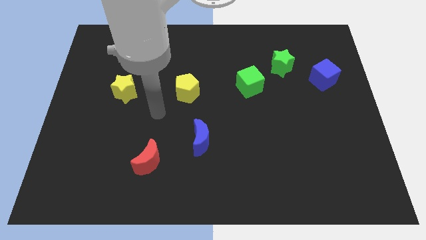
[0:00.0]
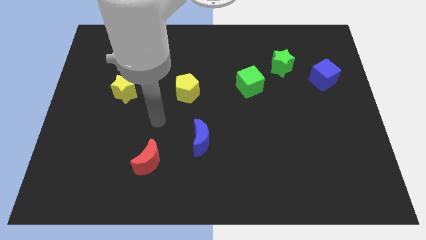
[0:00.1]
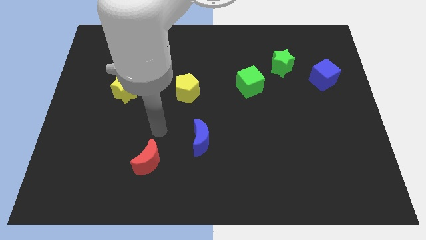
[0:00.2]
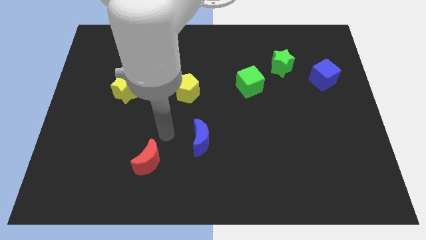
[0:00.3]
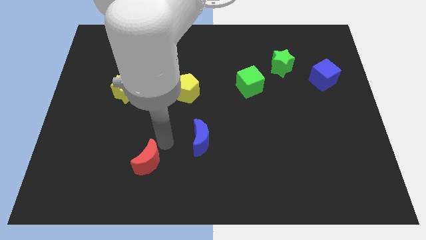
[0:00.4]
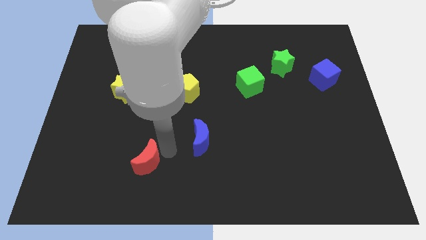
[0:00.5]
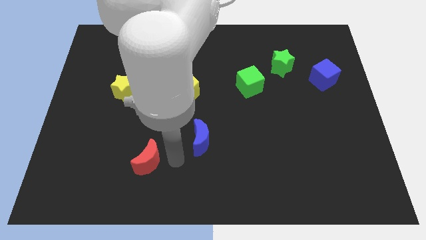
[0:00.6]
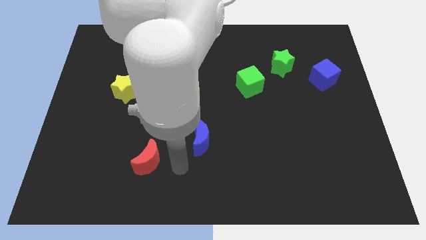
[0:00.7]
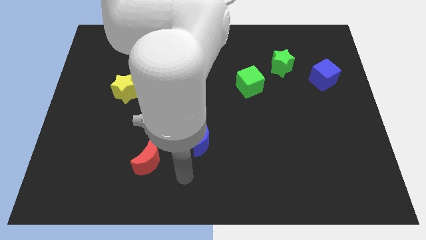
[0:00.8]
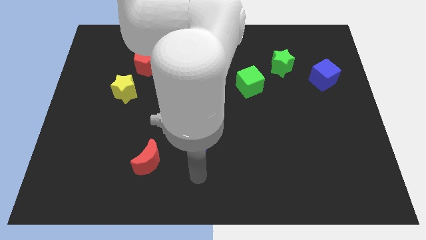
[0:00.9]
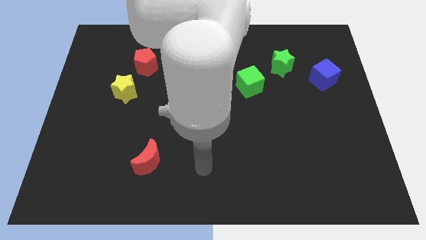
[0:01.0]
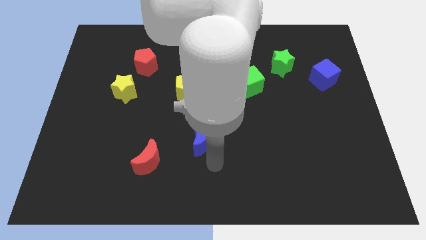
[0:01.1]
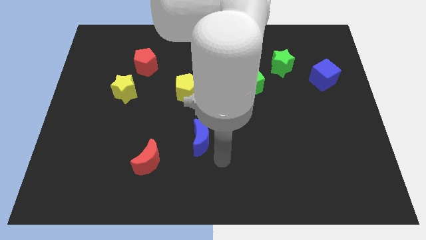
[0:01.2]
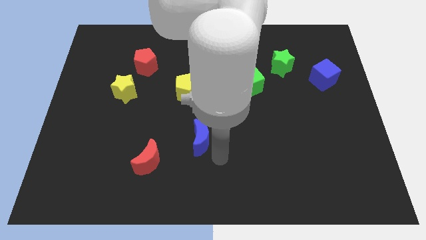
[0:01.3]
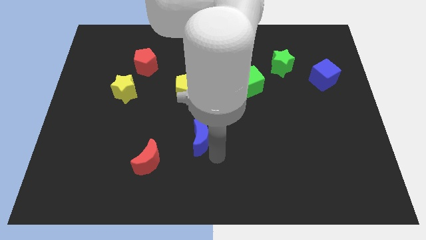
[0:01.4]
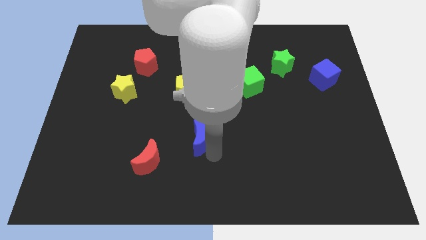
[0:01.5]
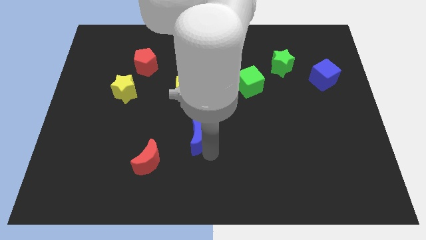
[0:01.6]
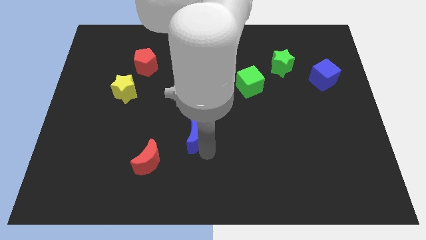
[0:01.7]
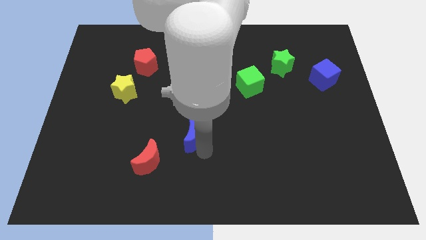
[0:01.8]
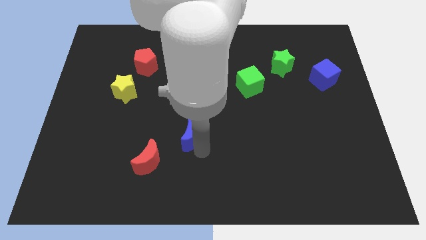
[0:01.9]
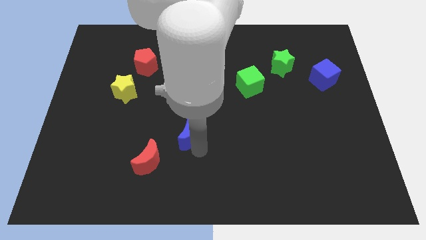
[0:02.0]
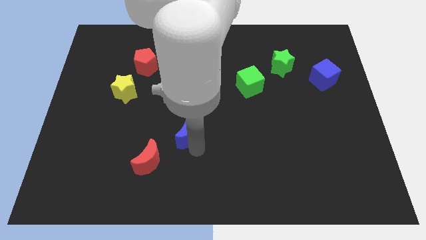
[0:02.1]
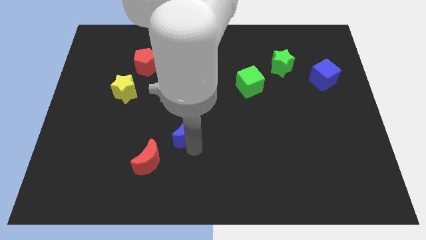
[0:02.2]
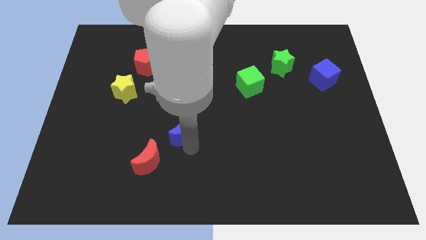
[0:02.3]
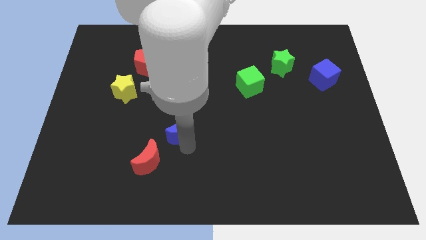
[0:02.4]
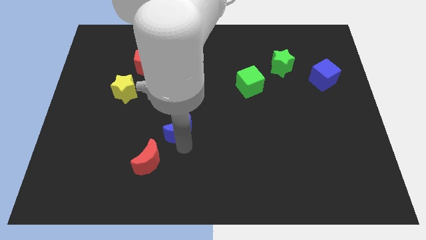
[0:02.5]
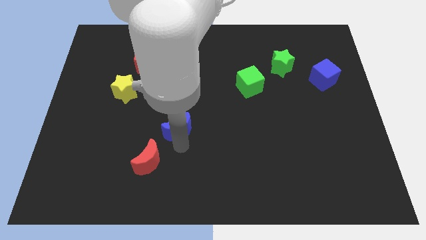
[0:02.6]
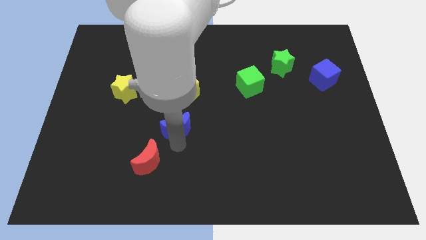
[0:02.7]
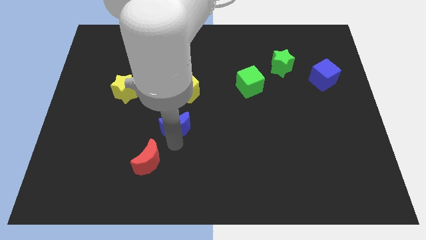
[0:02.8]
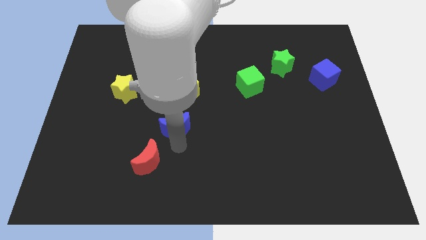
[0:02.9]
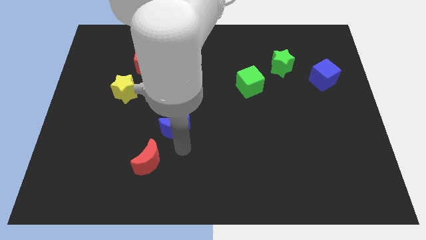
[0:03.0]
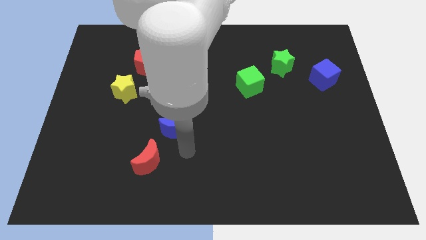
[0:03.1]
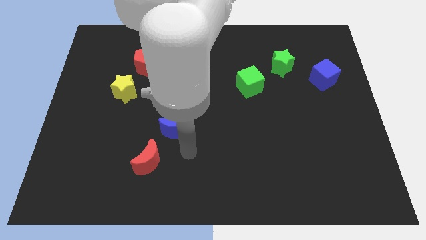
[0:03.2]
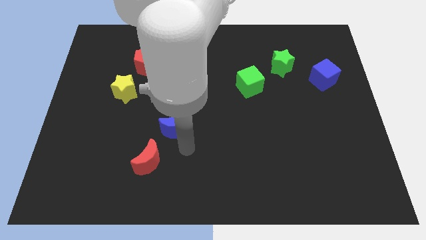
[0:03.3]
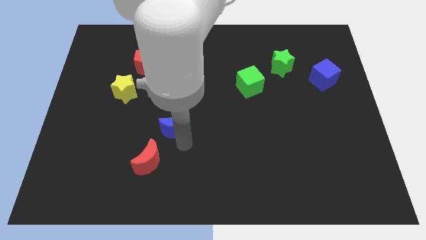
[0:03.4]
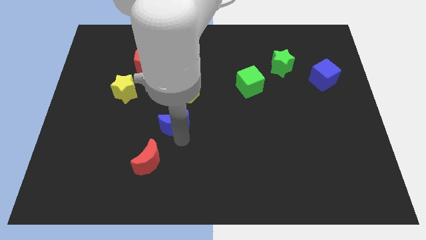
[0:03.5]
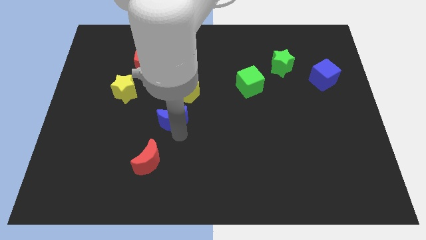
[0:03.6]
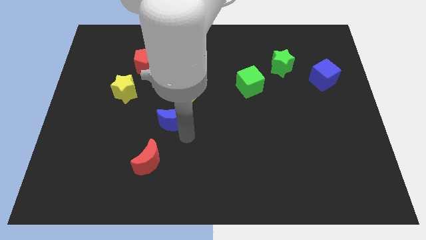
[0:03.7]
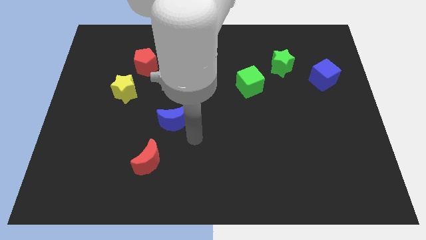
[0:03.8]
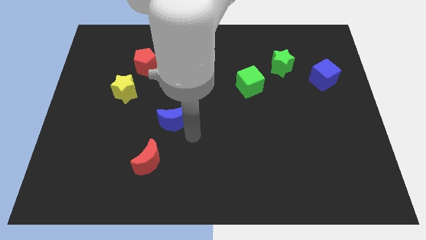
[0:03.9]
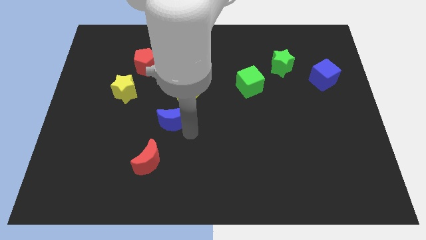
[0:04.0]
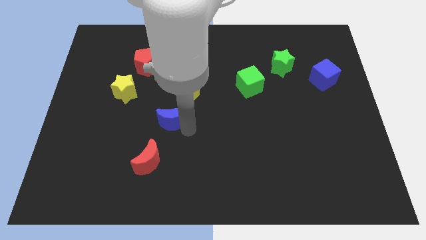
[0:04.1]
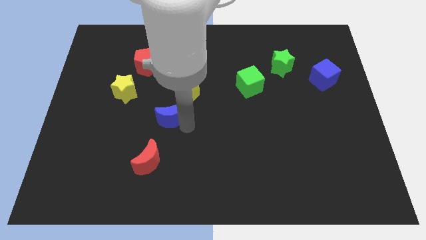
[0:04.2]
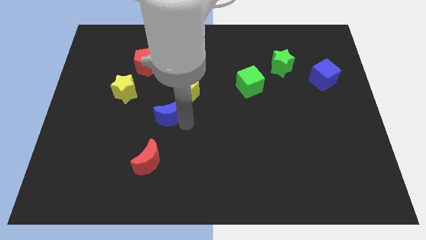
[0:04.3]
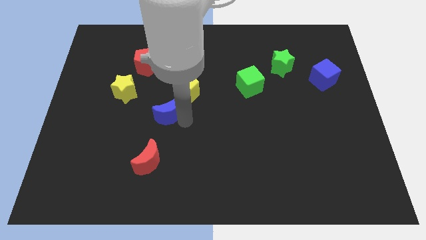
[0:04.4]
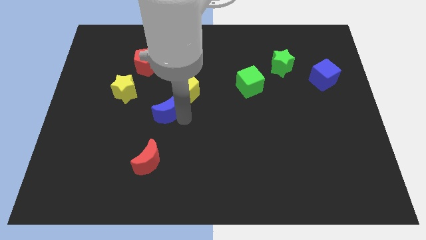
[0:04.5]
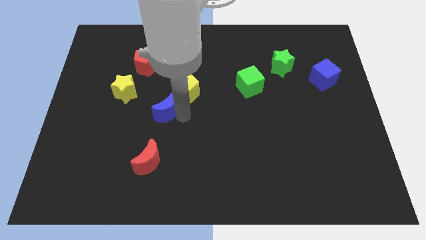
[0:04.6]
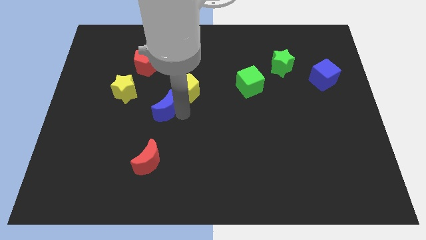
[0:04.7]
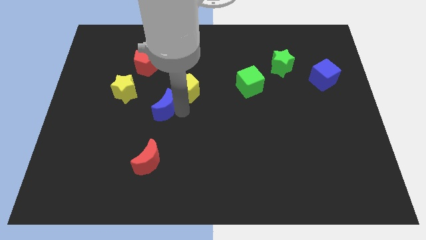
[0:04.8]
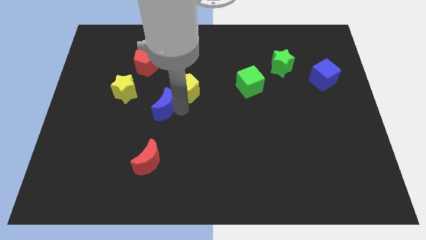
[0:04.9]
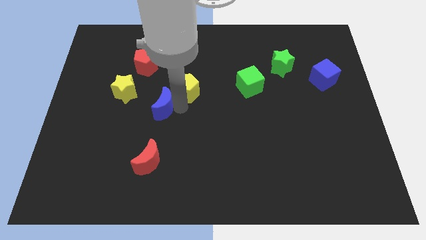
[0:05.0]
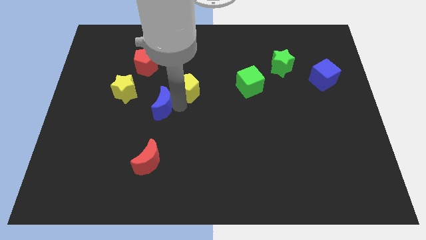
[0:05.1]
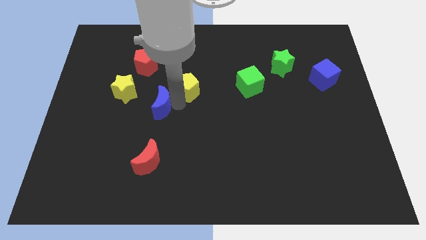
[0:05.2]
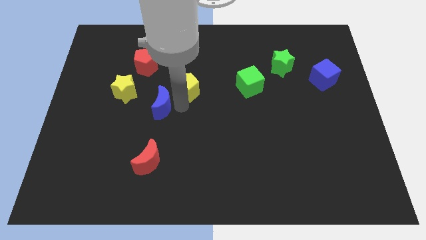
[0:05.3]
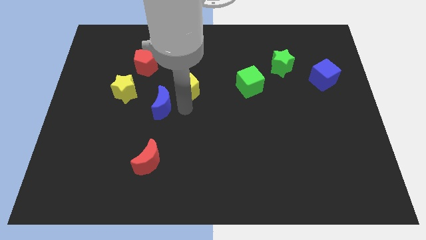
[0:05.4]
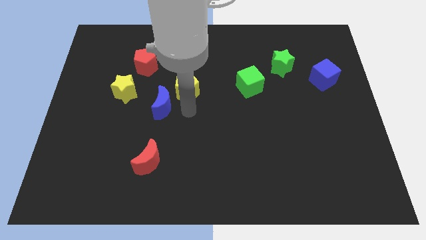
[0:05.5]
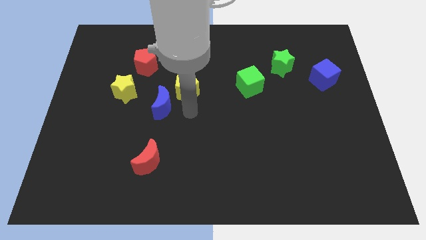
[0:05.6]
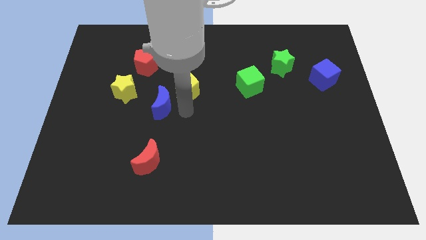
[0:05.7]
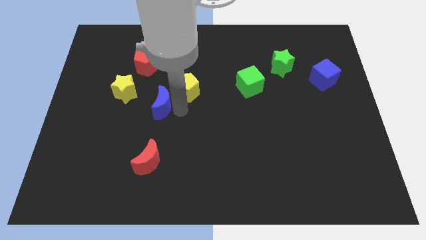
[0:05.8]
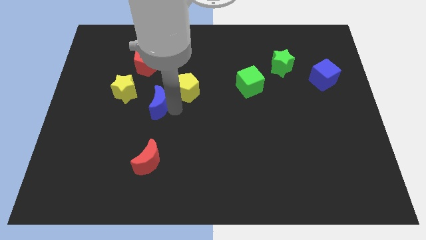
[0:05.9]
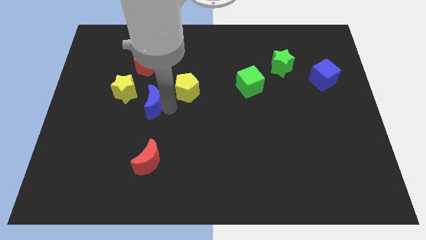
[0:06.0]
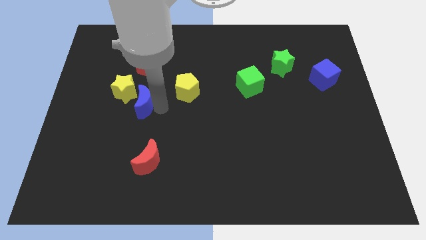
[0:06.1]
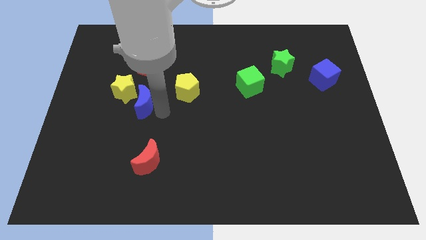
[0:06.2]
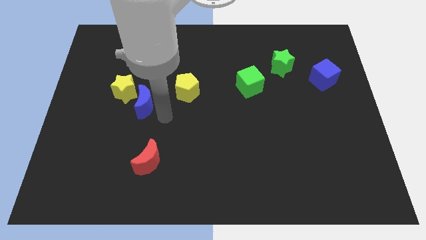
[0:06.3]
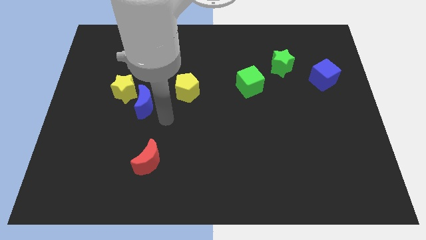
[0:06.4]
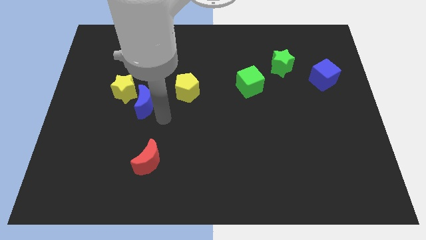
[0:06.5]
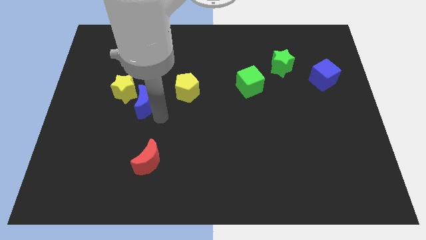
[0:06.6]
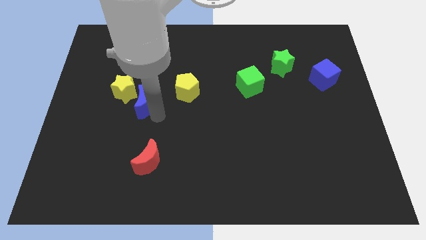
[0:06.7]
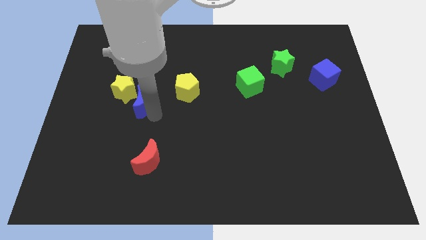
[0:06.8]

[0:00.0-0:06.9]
put the blue moon next to the yellow star
